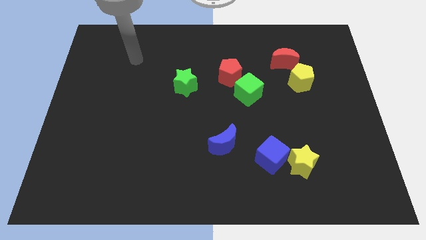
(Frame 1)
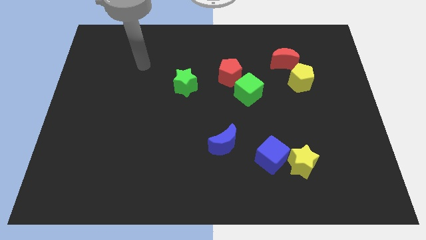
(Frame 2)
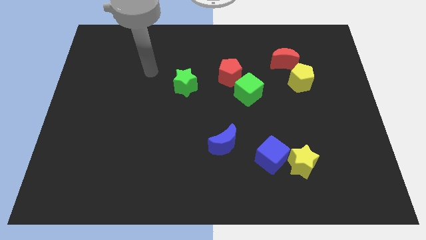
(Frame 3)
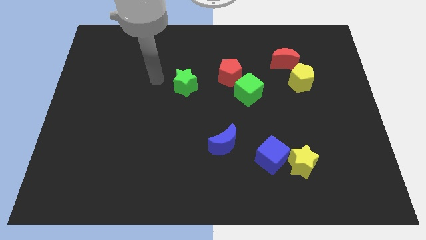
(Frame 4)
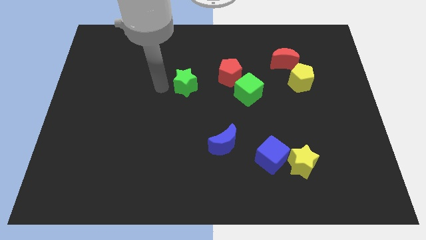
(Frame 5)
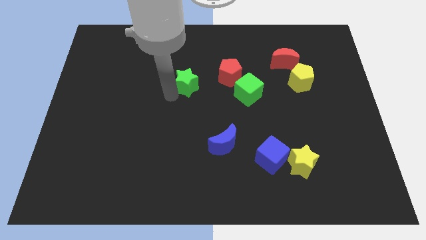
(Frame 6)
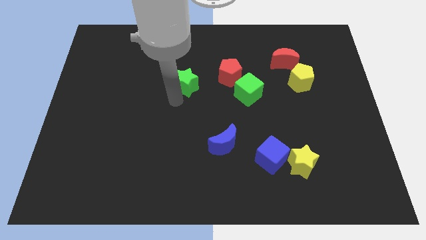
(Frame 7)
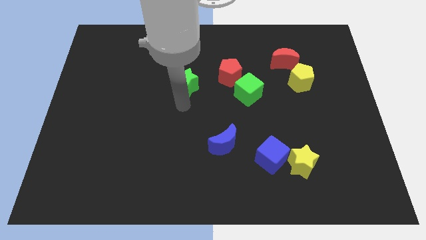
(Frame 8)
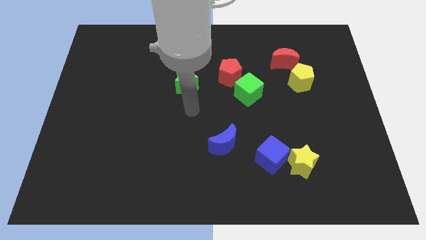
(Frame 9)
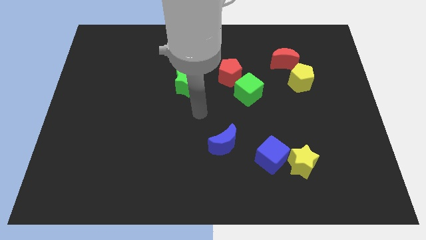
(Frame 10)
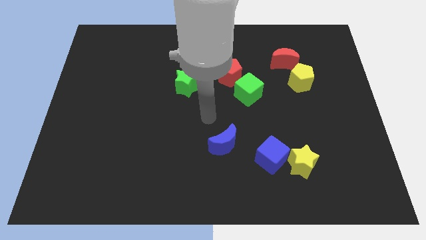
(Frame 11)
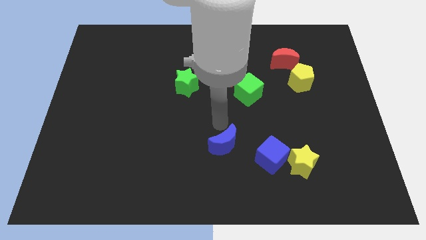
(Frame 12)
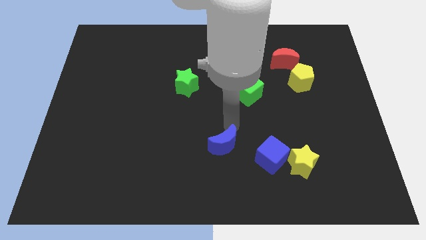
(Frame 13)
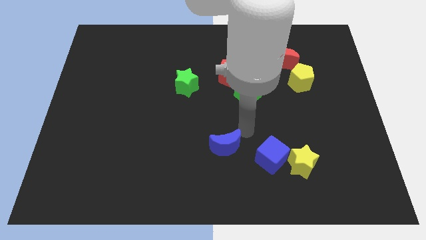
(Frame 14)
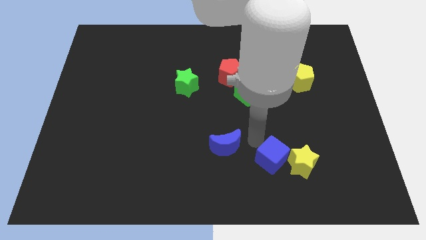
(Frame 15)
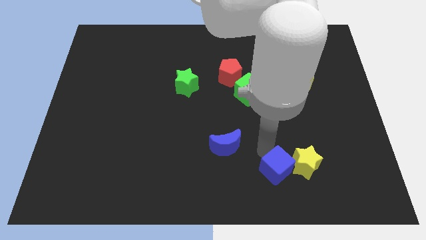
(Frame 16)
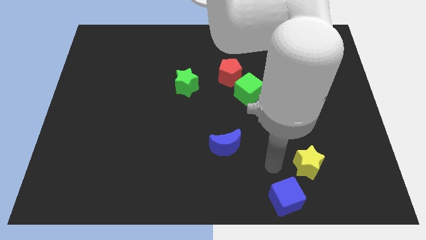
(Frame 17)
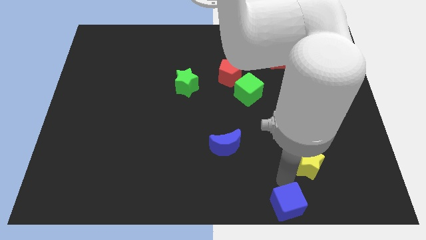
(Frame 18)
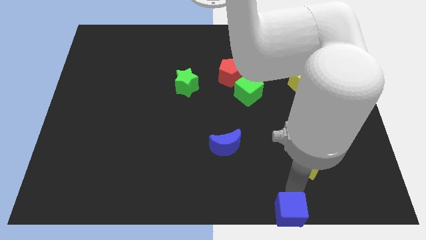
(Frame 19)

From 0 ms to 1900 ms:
pull the yellow star apart from the blue cube

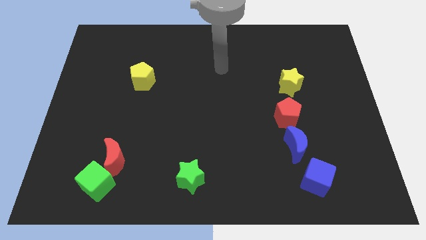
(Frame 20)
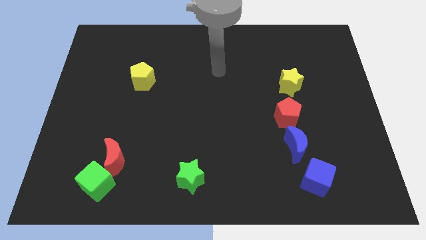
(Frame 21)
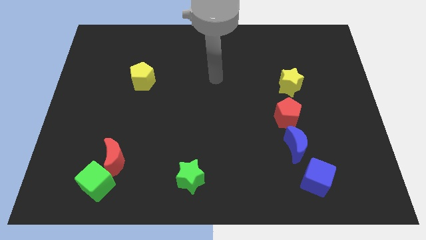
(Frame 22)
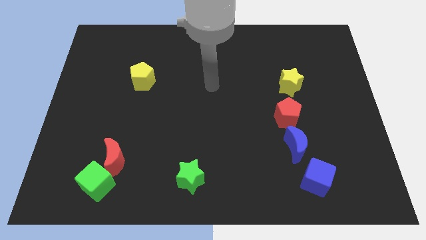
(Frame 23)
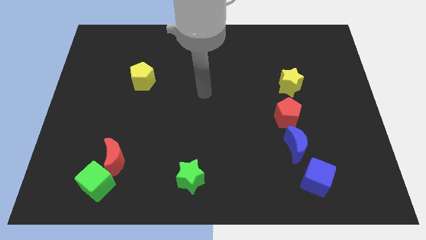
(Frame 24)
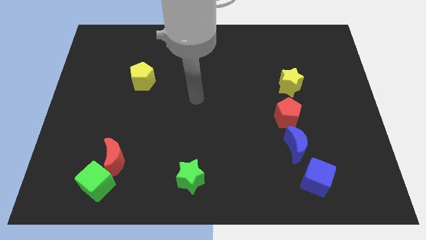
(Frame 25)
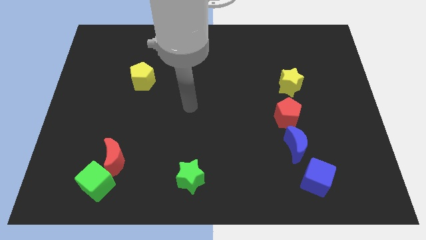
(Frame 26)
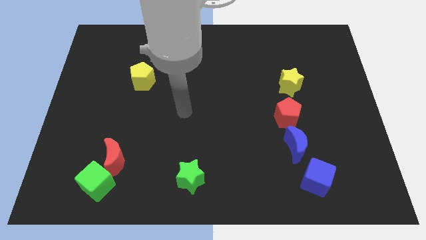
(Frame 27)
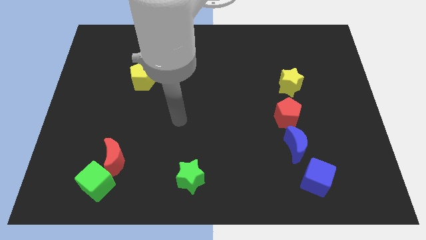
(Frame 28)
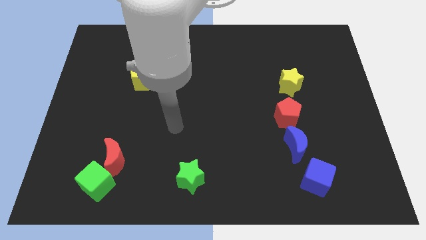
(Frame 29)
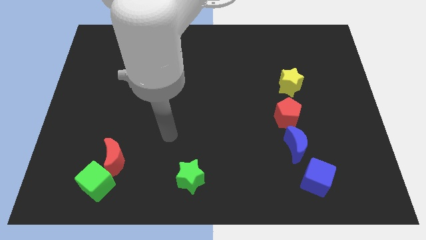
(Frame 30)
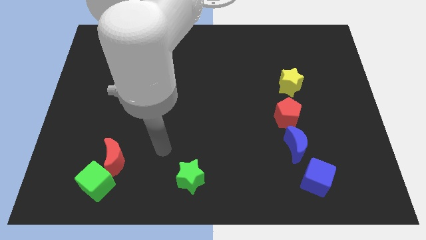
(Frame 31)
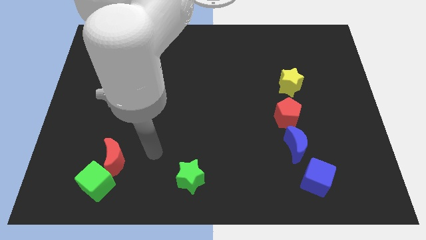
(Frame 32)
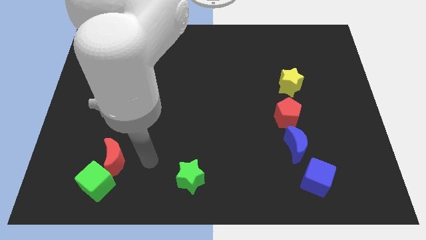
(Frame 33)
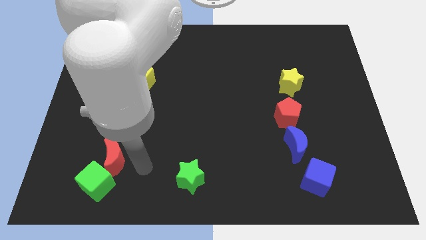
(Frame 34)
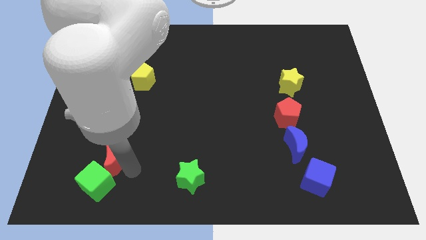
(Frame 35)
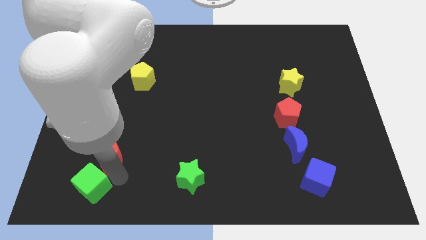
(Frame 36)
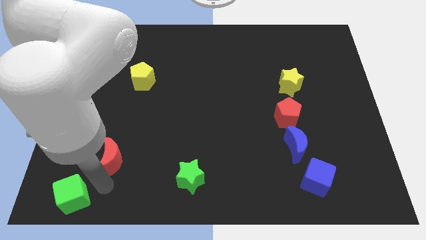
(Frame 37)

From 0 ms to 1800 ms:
move the red moon away from the green cube

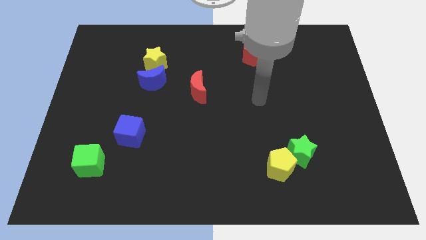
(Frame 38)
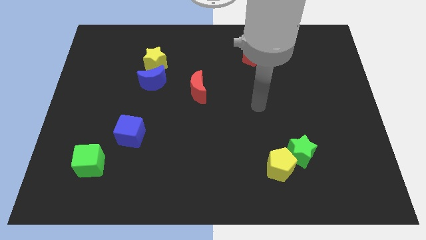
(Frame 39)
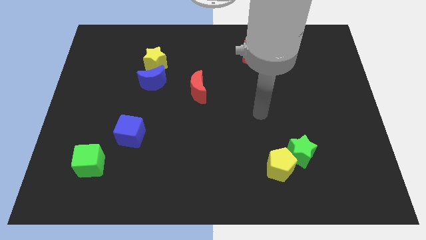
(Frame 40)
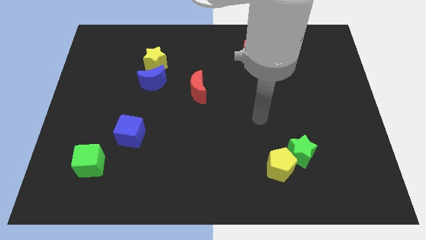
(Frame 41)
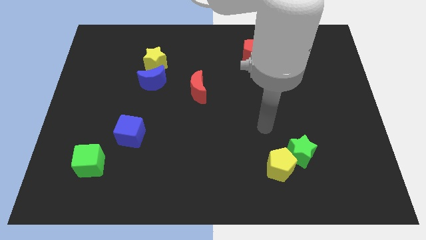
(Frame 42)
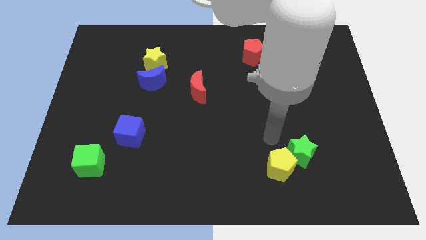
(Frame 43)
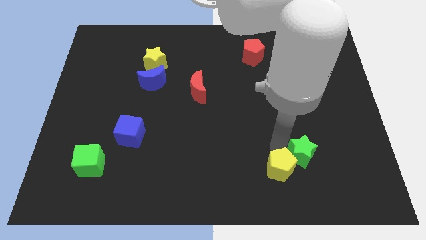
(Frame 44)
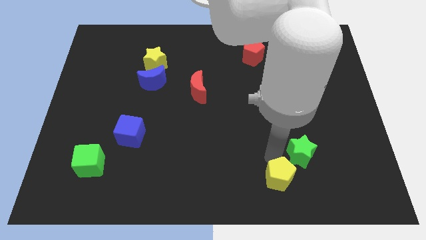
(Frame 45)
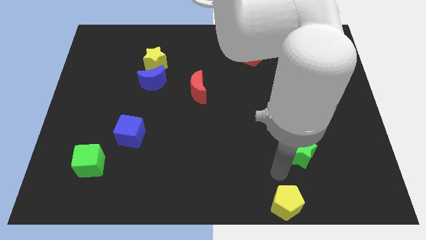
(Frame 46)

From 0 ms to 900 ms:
move the green star away from the yellow pentagon

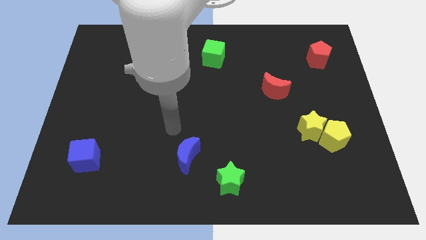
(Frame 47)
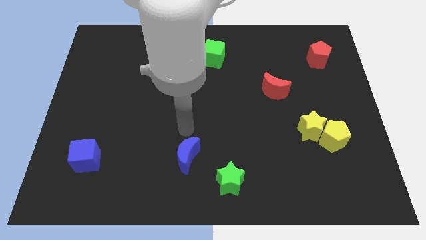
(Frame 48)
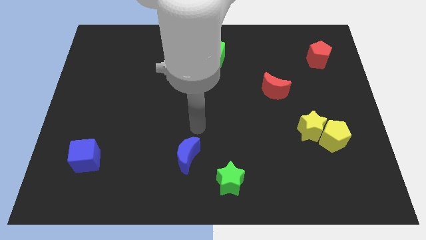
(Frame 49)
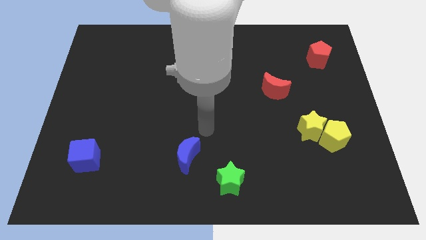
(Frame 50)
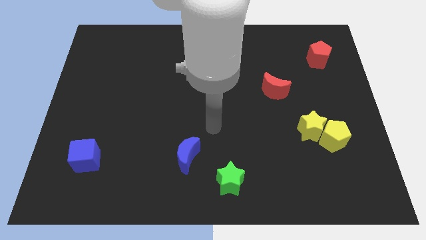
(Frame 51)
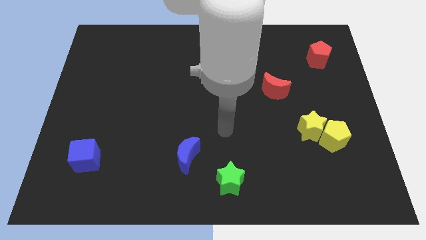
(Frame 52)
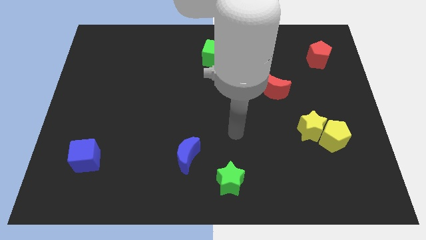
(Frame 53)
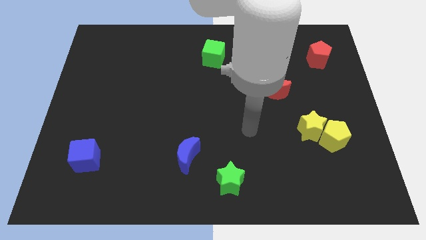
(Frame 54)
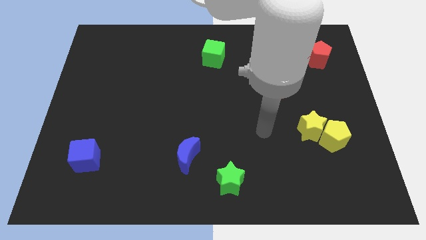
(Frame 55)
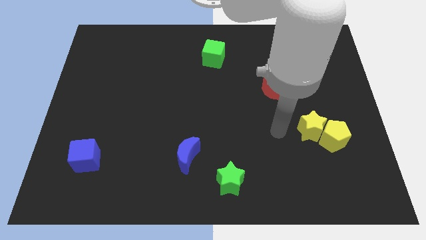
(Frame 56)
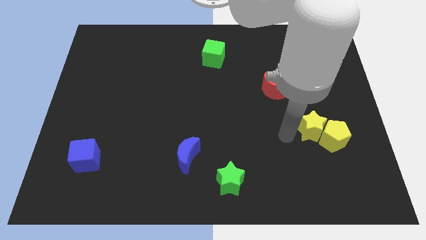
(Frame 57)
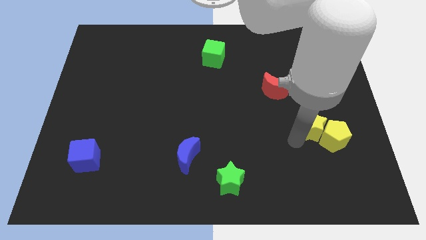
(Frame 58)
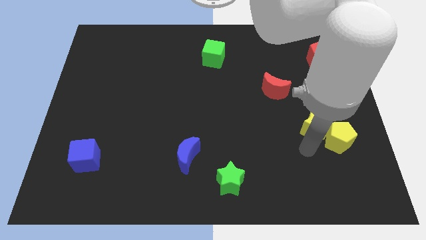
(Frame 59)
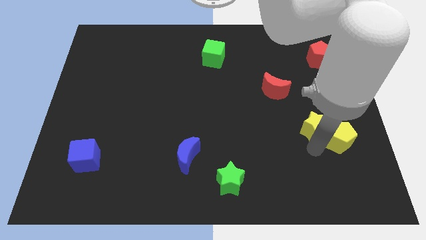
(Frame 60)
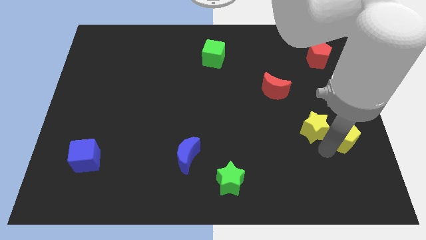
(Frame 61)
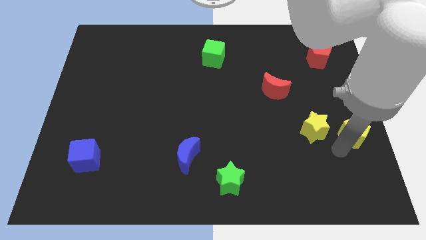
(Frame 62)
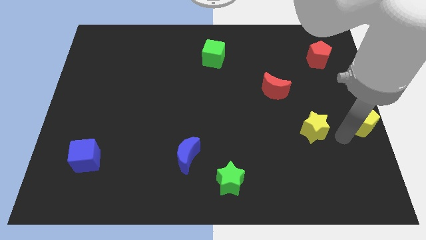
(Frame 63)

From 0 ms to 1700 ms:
separate the yellow star from the yellow pentagon

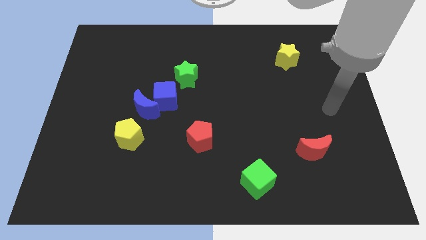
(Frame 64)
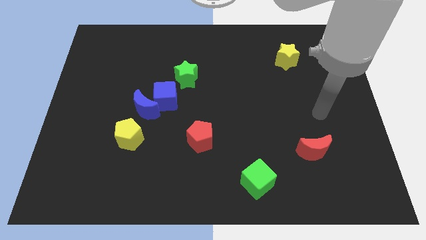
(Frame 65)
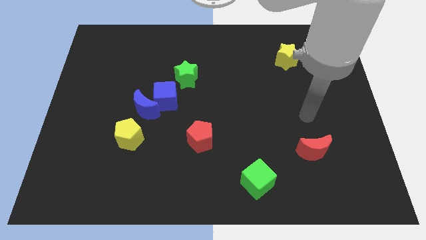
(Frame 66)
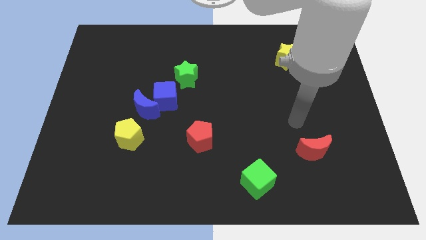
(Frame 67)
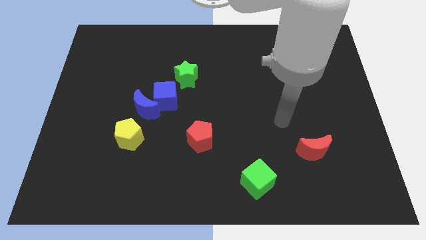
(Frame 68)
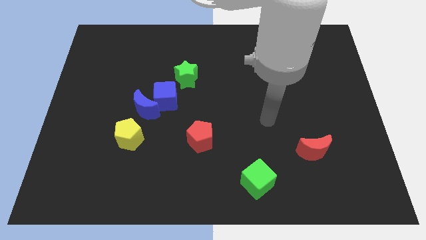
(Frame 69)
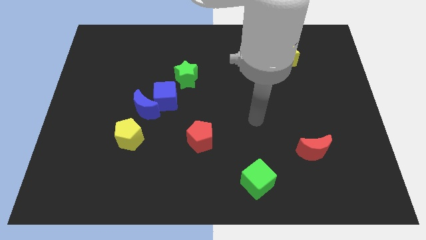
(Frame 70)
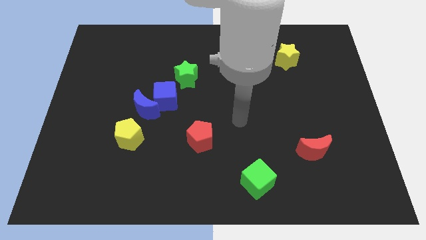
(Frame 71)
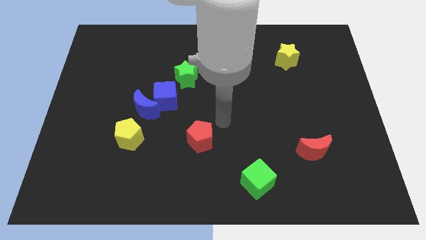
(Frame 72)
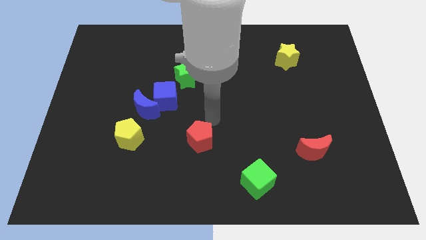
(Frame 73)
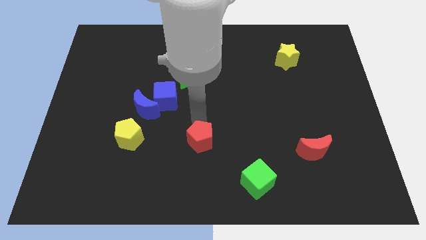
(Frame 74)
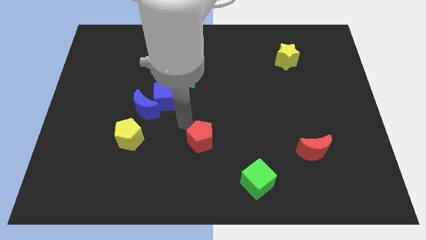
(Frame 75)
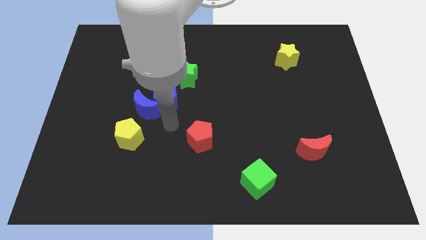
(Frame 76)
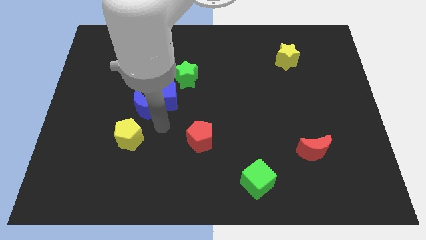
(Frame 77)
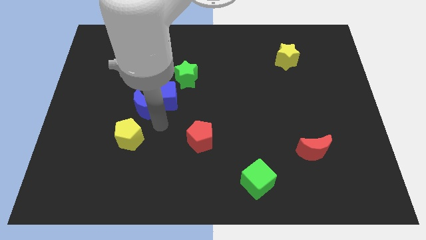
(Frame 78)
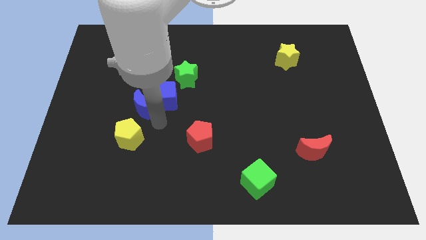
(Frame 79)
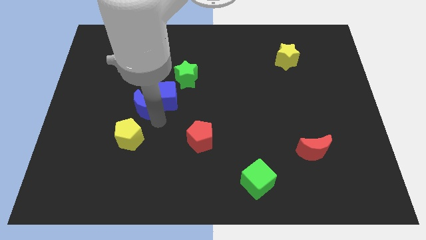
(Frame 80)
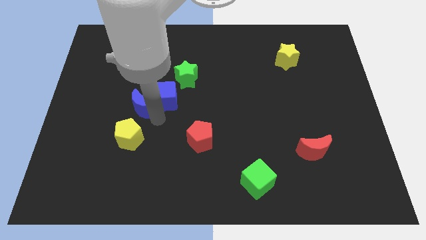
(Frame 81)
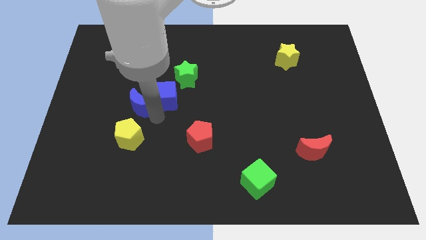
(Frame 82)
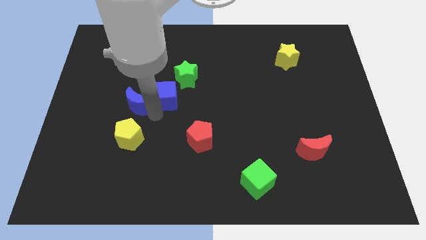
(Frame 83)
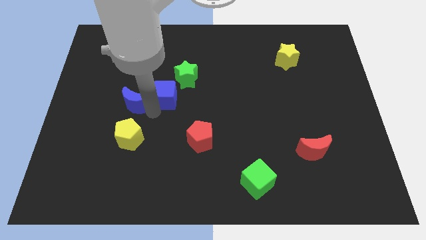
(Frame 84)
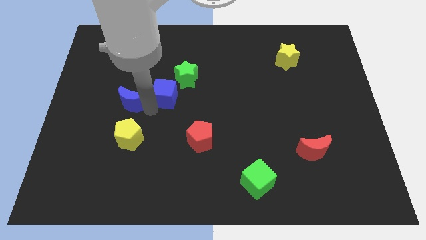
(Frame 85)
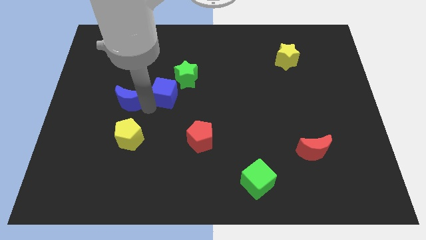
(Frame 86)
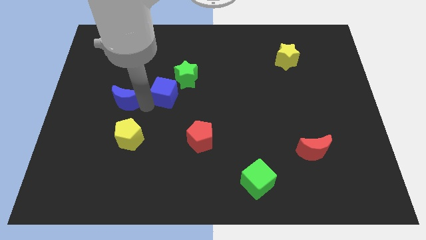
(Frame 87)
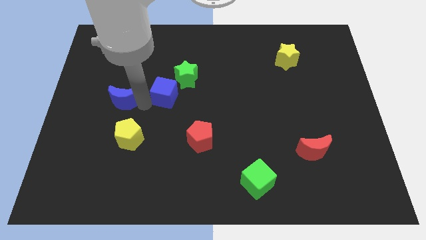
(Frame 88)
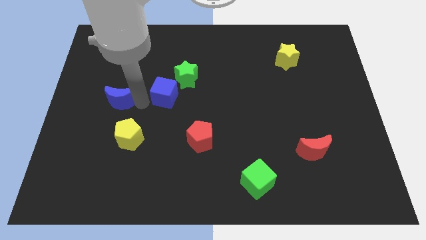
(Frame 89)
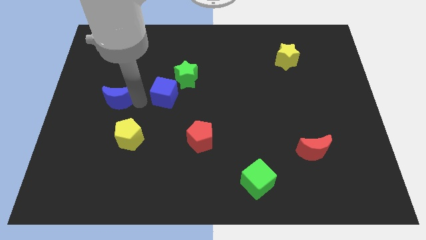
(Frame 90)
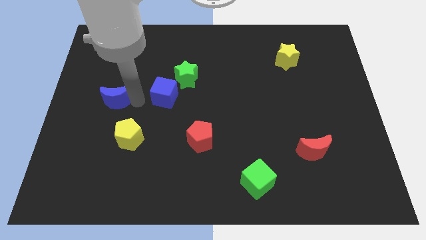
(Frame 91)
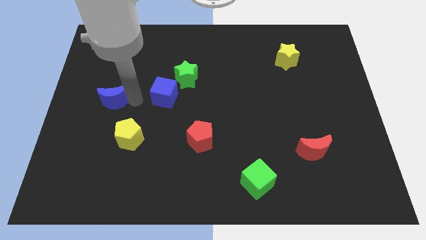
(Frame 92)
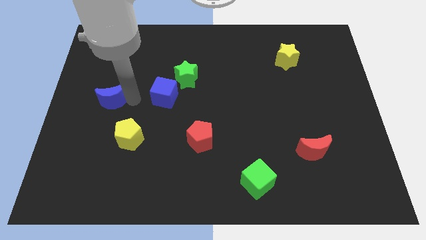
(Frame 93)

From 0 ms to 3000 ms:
pull the blue moon apart from the blue cube and yellow pentagon

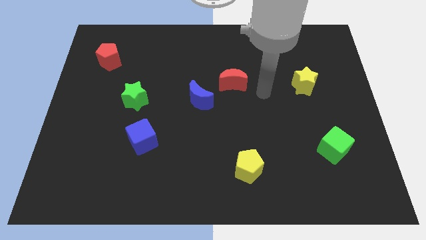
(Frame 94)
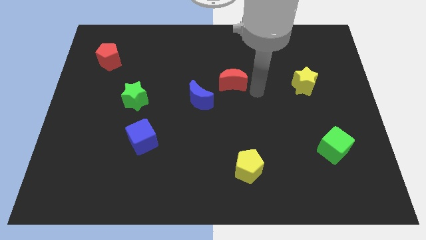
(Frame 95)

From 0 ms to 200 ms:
pull the red moon apart from the blue moon
